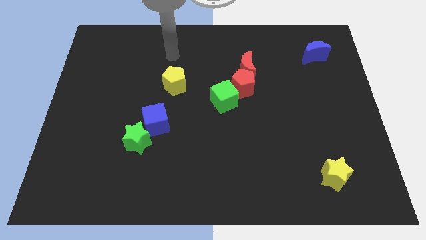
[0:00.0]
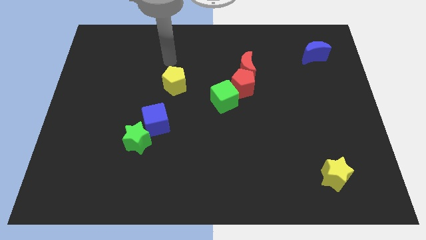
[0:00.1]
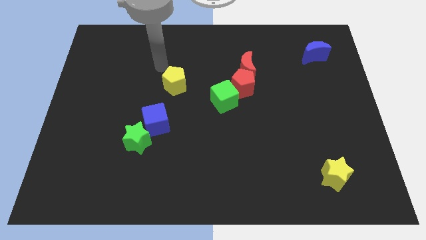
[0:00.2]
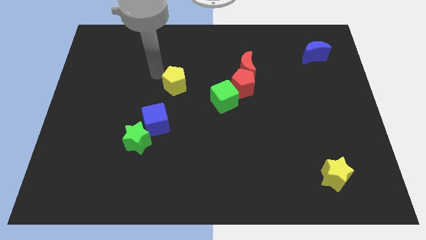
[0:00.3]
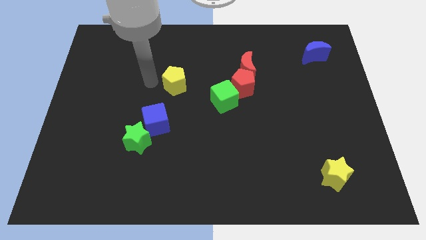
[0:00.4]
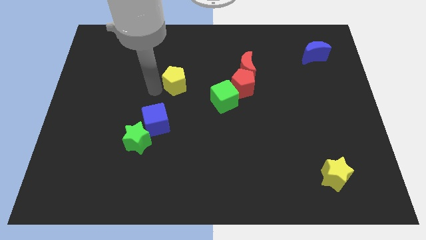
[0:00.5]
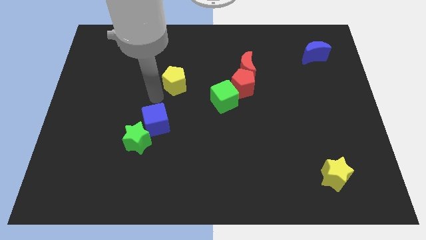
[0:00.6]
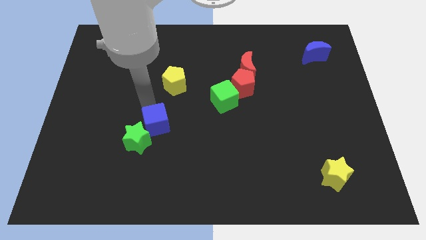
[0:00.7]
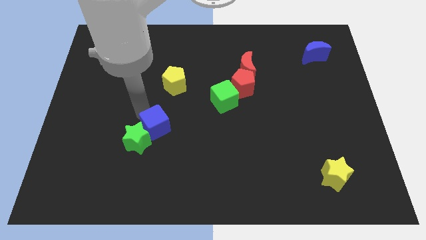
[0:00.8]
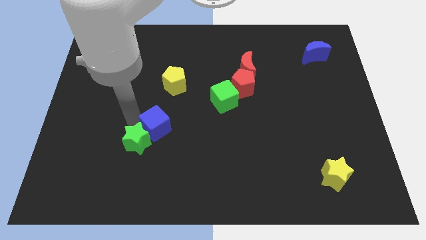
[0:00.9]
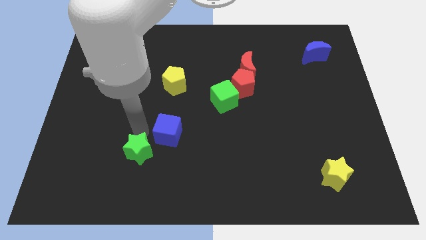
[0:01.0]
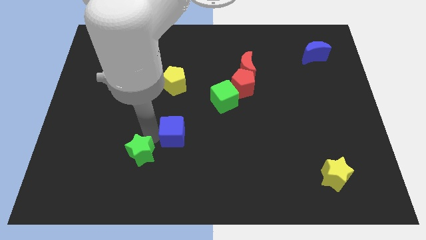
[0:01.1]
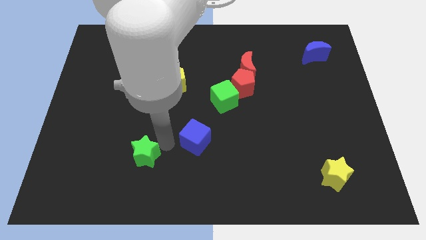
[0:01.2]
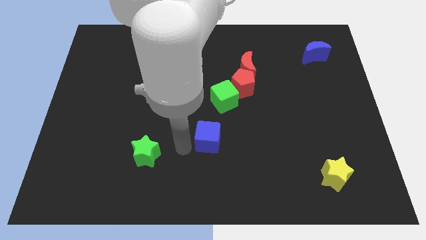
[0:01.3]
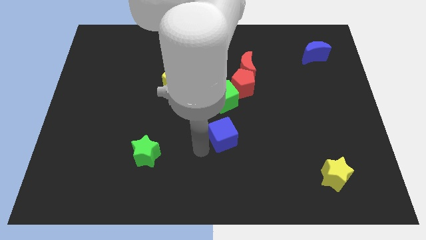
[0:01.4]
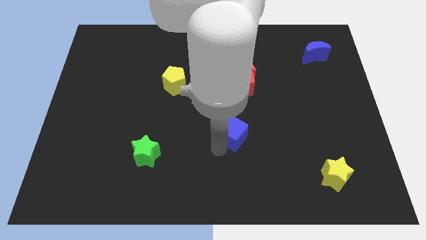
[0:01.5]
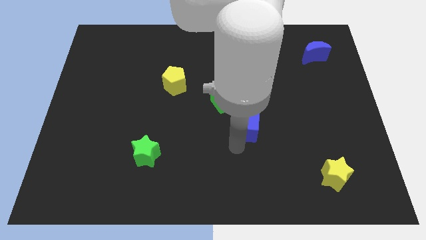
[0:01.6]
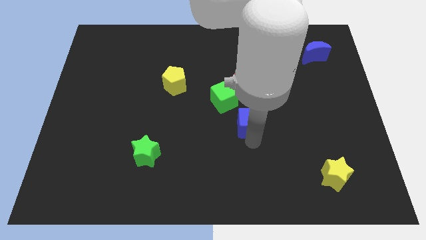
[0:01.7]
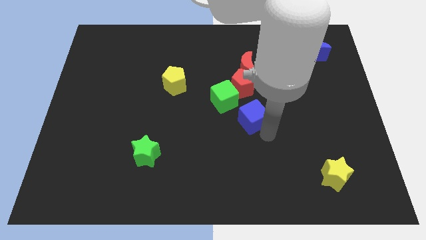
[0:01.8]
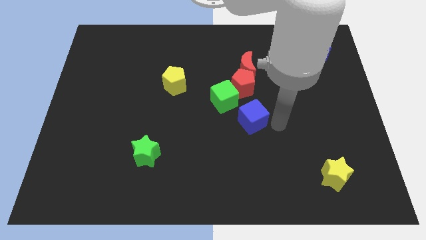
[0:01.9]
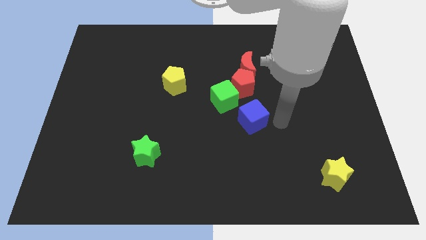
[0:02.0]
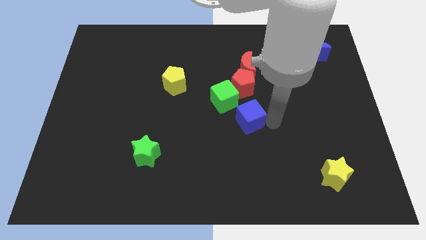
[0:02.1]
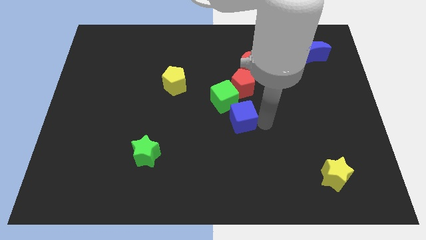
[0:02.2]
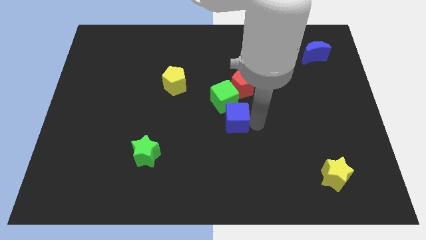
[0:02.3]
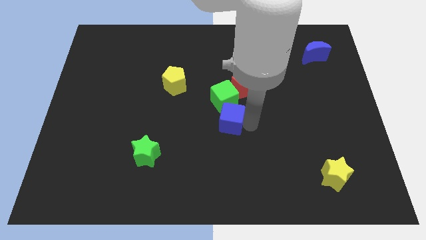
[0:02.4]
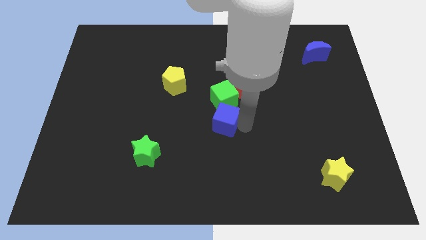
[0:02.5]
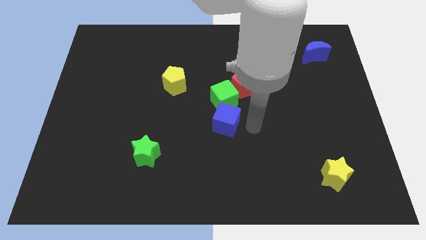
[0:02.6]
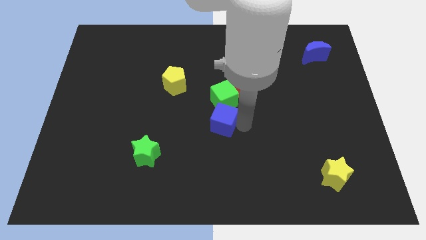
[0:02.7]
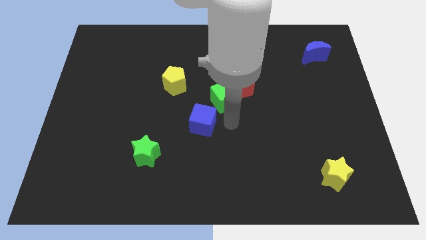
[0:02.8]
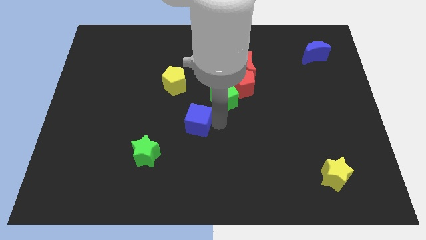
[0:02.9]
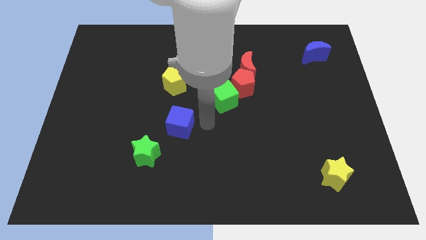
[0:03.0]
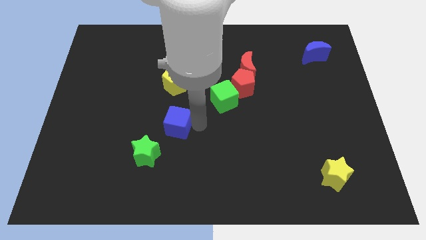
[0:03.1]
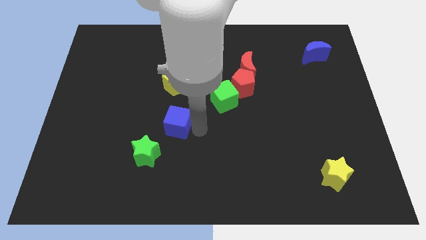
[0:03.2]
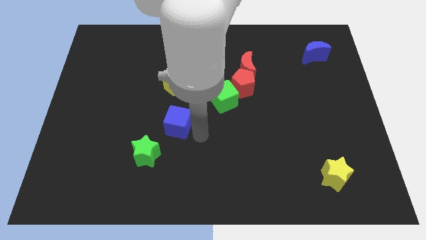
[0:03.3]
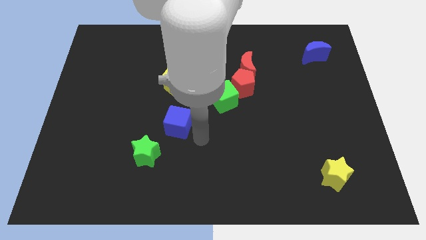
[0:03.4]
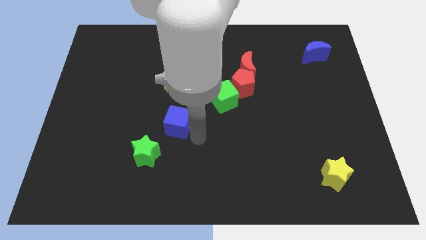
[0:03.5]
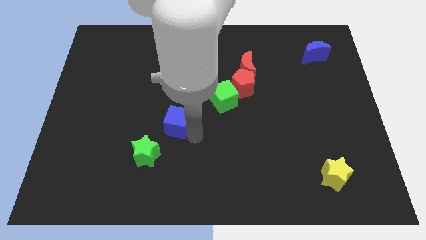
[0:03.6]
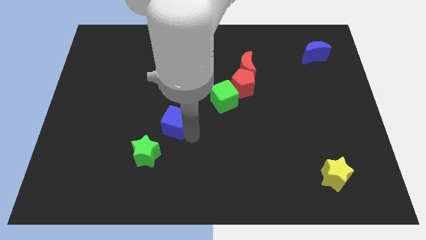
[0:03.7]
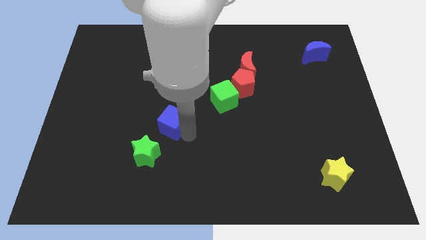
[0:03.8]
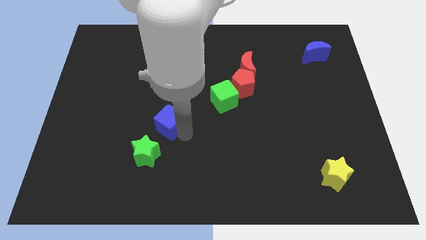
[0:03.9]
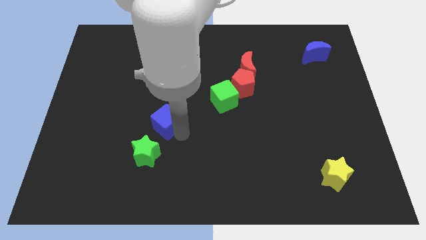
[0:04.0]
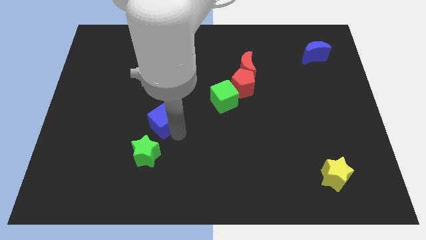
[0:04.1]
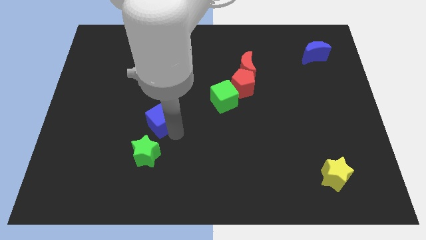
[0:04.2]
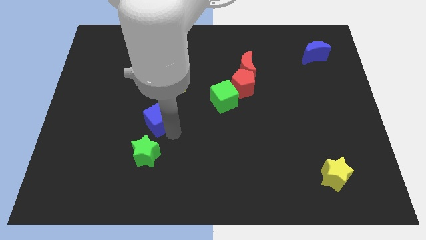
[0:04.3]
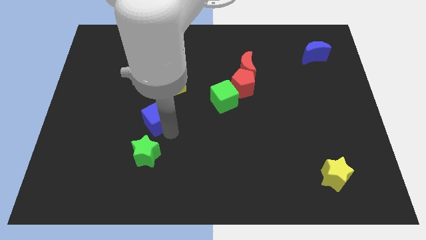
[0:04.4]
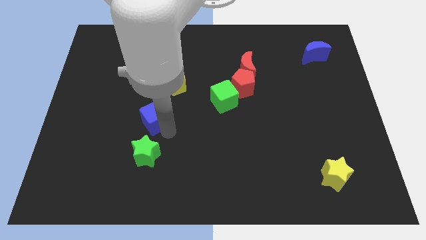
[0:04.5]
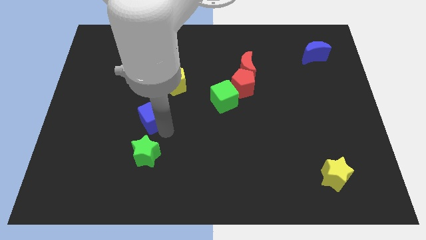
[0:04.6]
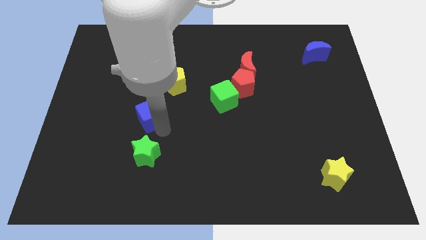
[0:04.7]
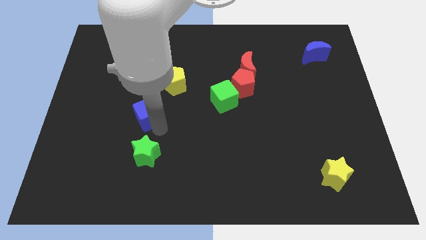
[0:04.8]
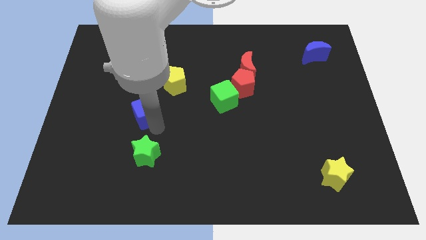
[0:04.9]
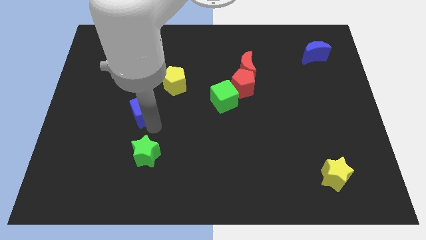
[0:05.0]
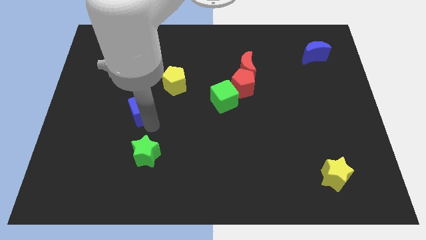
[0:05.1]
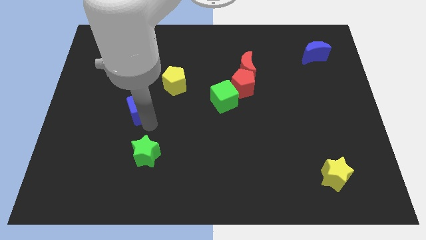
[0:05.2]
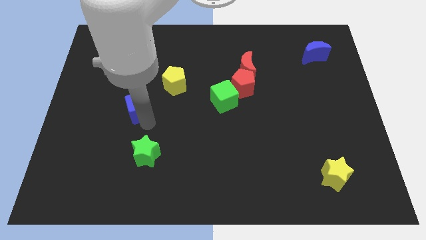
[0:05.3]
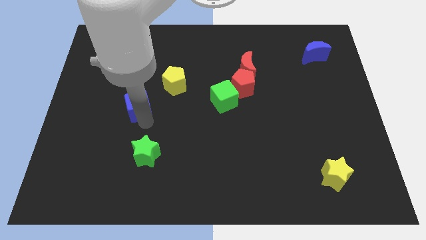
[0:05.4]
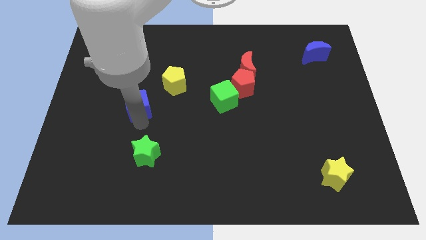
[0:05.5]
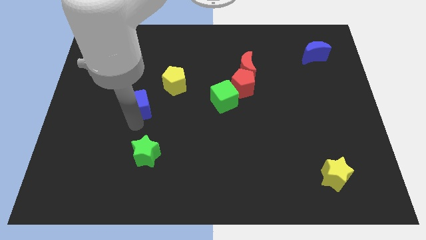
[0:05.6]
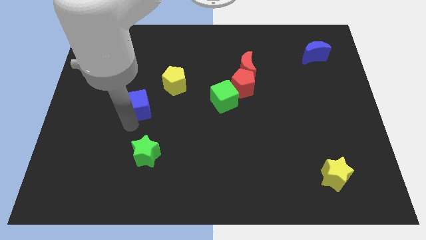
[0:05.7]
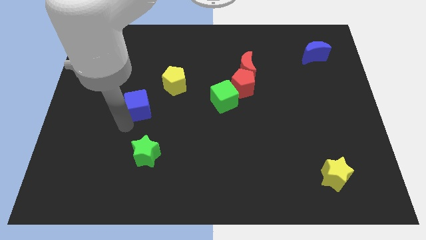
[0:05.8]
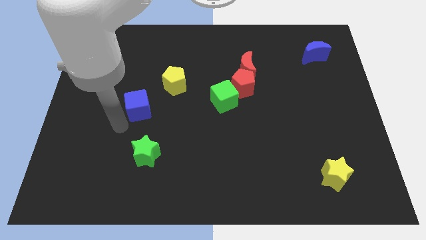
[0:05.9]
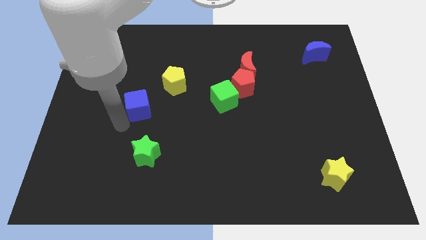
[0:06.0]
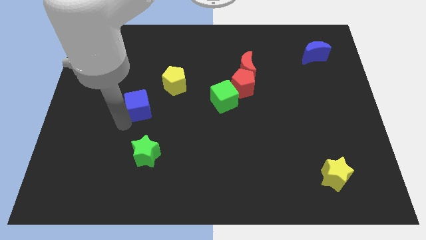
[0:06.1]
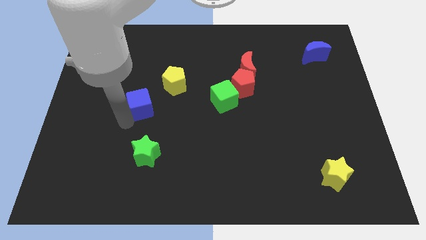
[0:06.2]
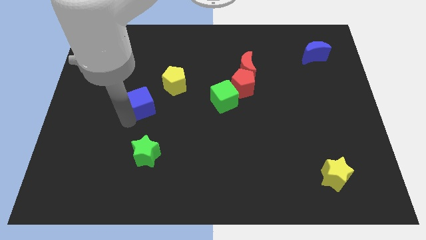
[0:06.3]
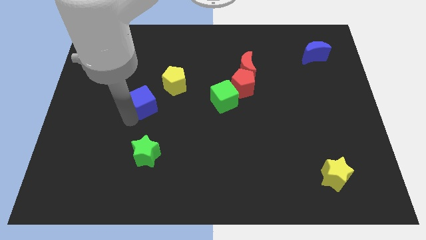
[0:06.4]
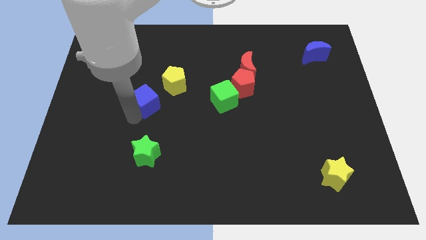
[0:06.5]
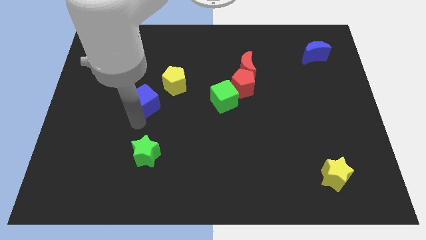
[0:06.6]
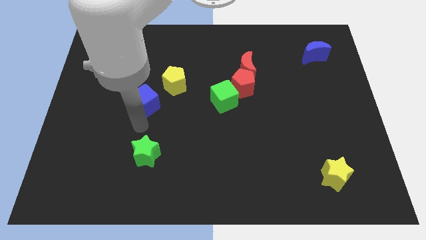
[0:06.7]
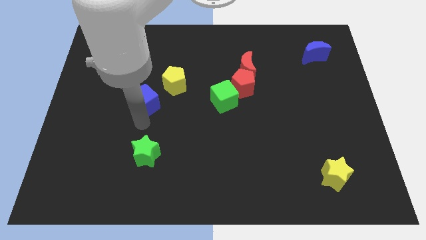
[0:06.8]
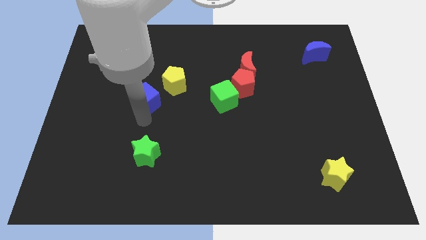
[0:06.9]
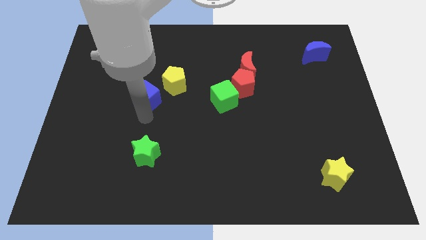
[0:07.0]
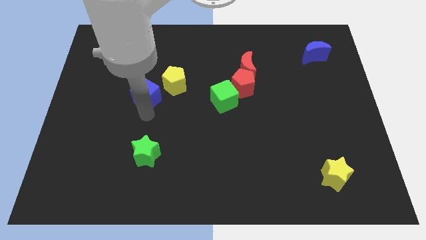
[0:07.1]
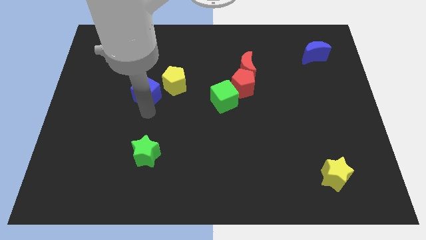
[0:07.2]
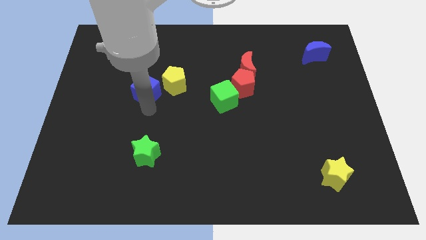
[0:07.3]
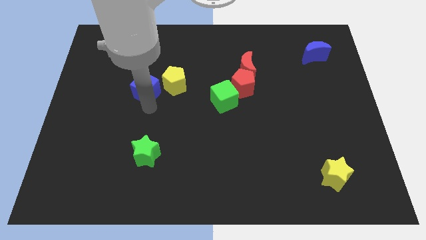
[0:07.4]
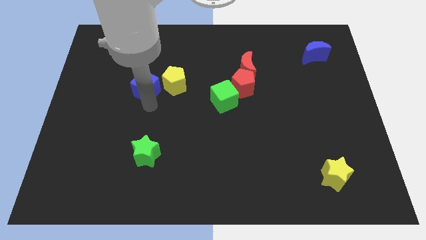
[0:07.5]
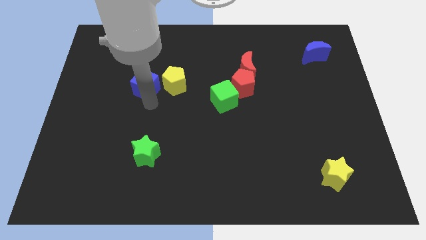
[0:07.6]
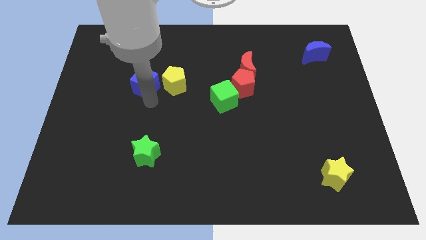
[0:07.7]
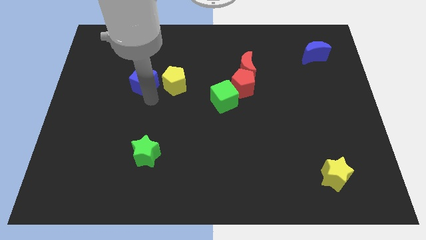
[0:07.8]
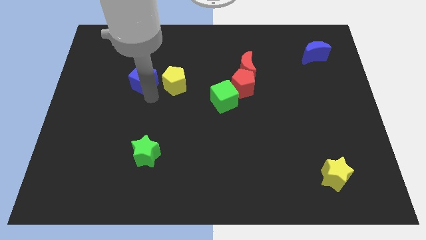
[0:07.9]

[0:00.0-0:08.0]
put the blue cube diagonally up and to the left of the yellow pentagon
